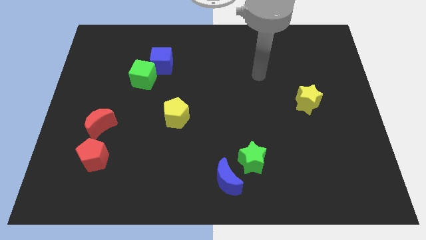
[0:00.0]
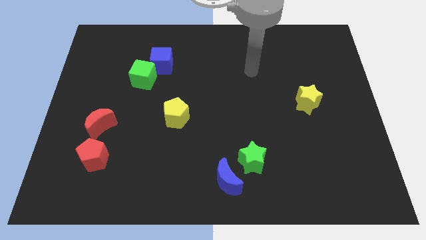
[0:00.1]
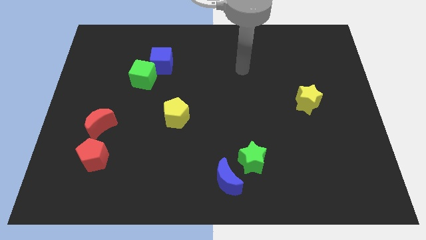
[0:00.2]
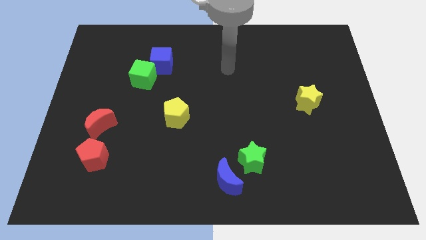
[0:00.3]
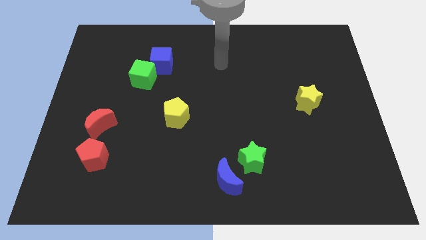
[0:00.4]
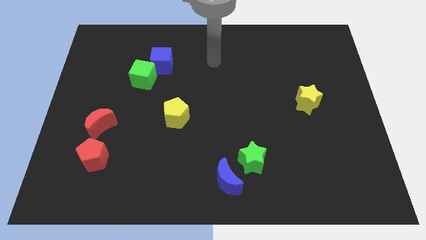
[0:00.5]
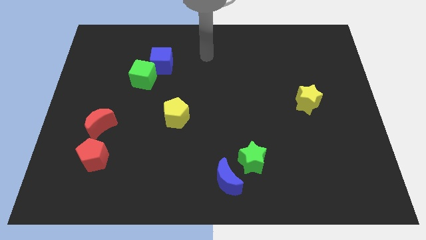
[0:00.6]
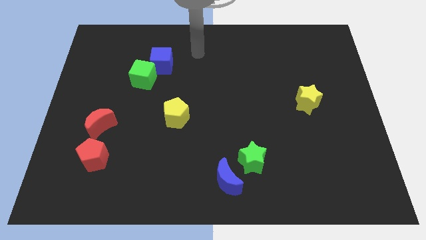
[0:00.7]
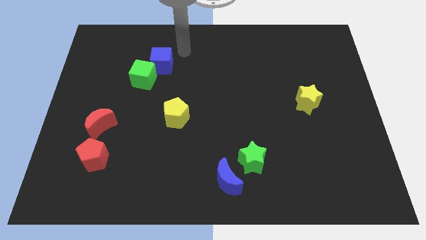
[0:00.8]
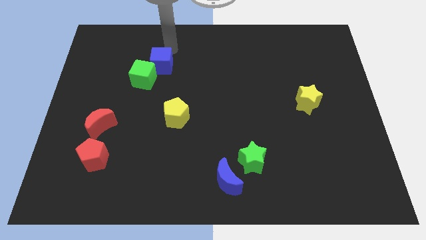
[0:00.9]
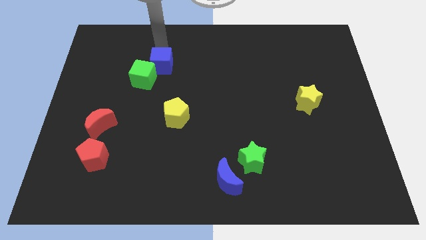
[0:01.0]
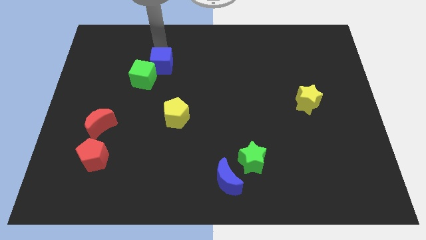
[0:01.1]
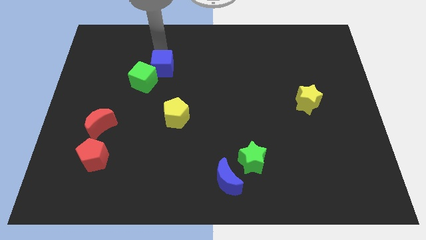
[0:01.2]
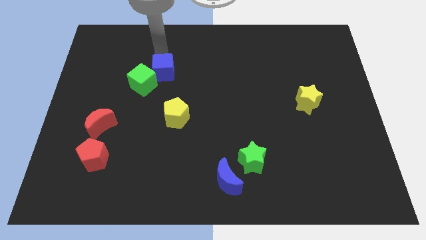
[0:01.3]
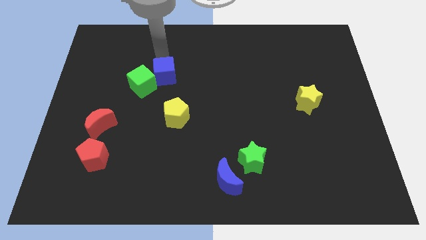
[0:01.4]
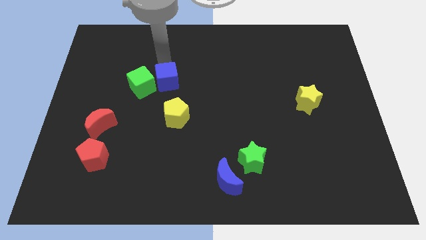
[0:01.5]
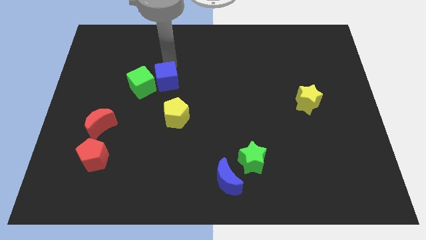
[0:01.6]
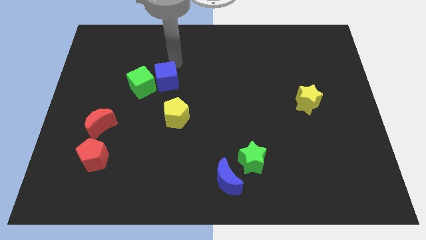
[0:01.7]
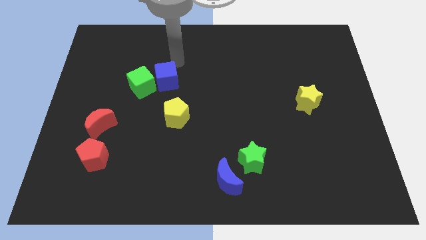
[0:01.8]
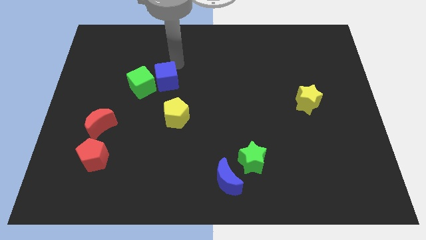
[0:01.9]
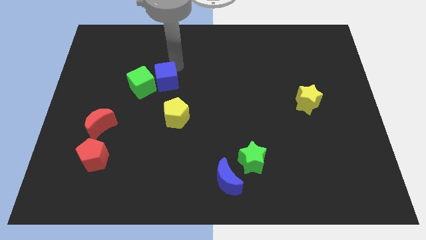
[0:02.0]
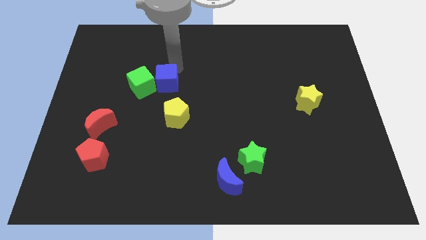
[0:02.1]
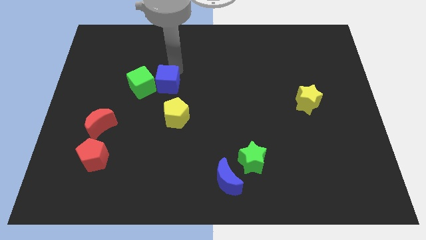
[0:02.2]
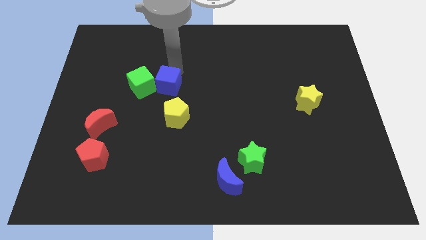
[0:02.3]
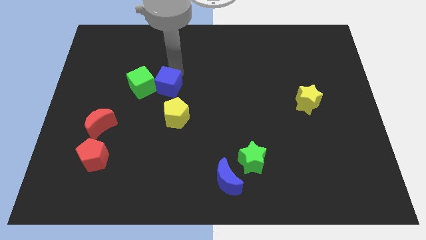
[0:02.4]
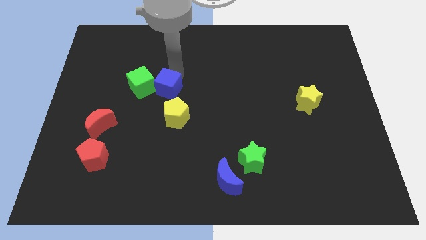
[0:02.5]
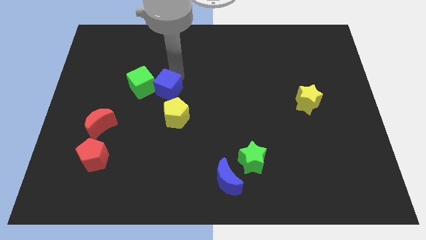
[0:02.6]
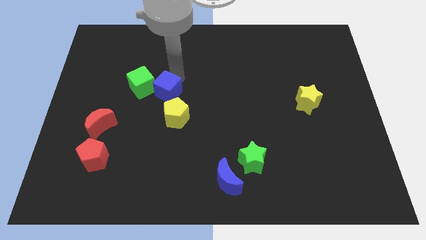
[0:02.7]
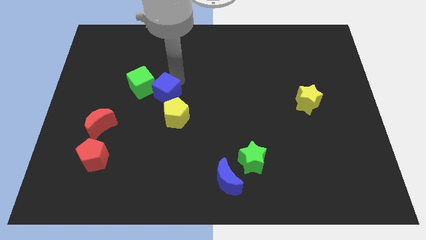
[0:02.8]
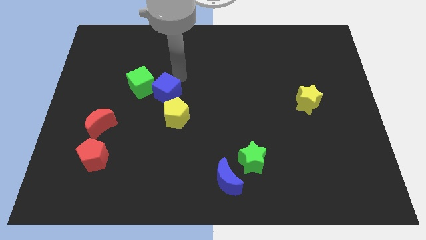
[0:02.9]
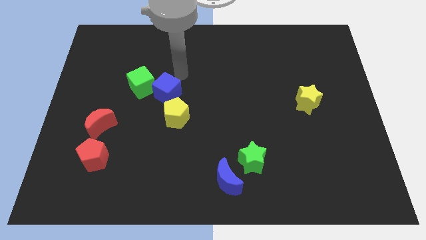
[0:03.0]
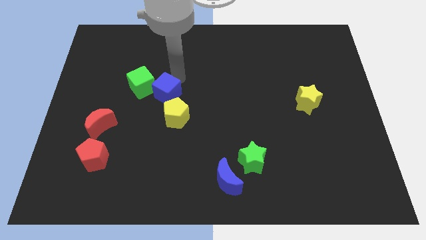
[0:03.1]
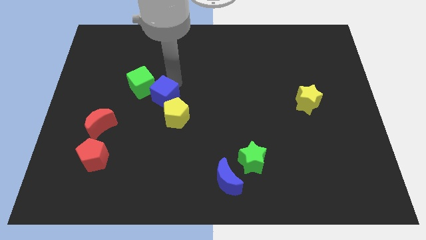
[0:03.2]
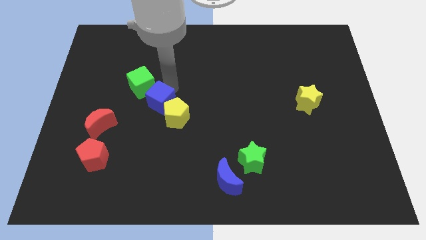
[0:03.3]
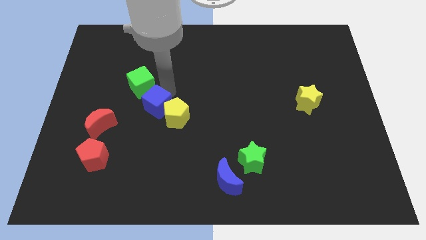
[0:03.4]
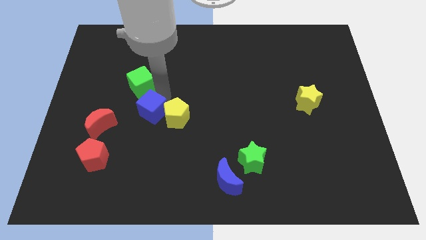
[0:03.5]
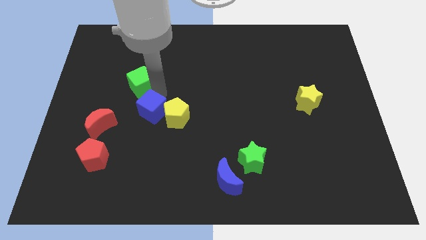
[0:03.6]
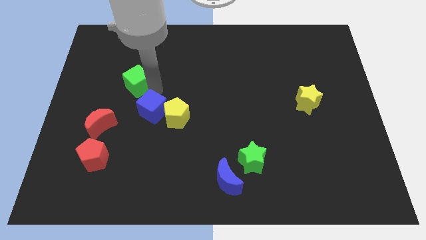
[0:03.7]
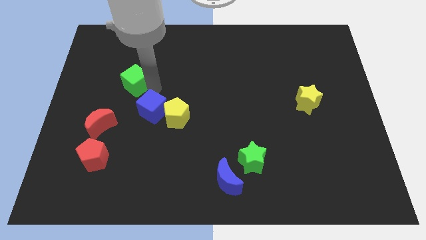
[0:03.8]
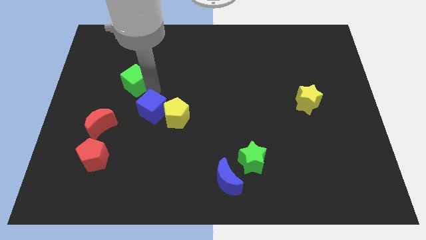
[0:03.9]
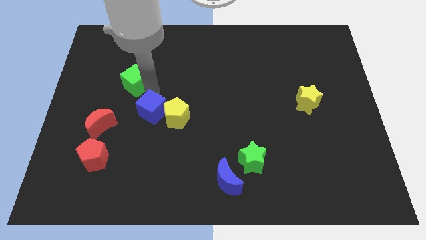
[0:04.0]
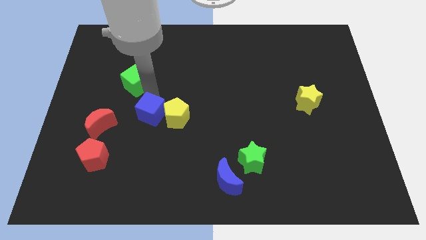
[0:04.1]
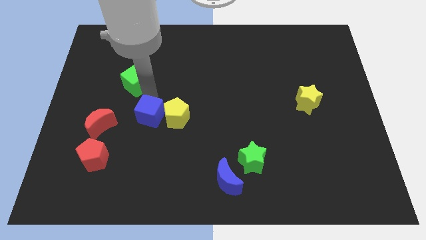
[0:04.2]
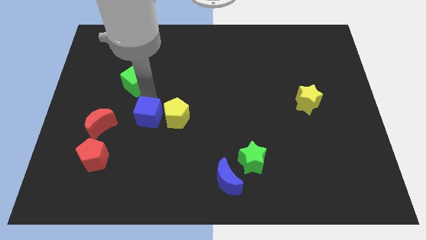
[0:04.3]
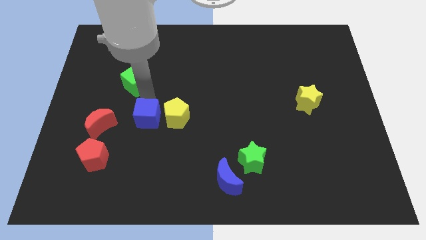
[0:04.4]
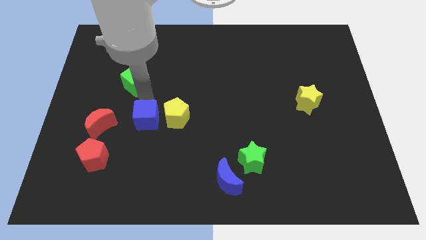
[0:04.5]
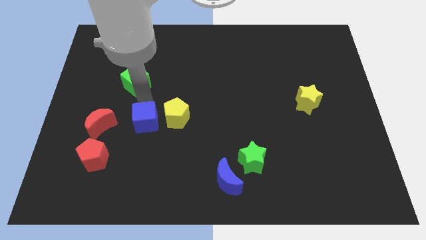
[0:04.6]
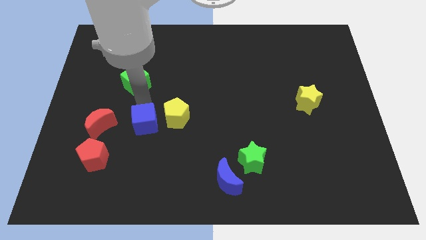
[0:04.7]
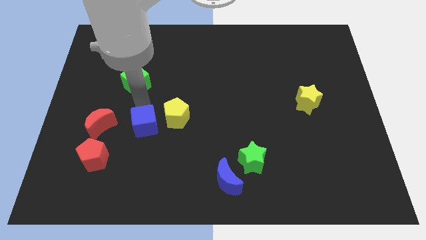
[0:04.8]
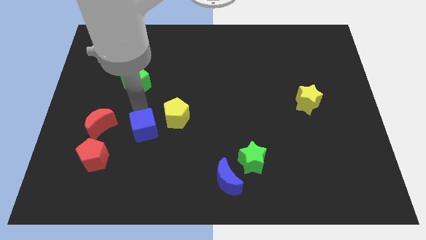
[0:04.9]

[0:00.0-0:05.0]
push the blue cube down

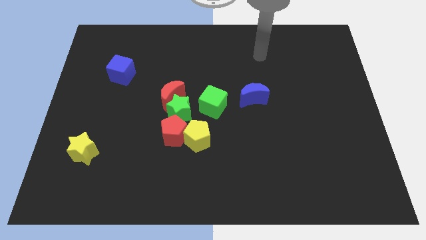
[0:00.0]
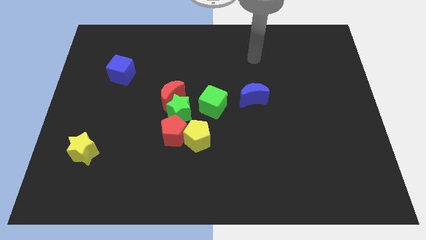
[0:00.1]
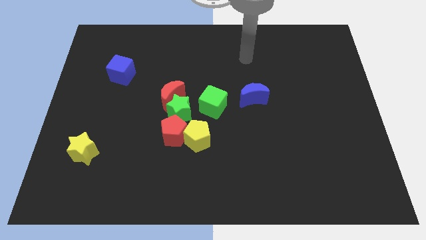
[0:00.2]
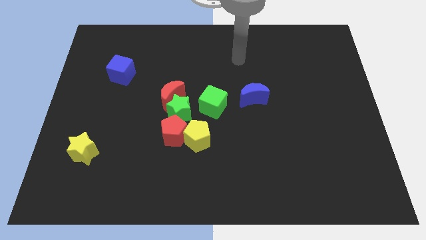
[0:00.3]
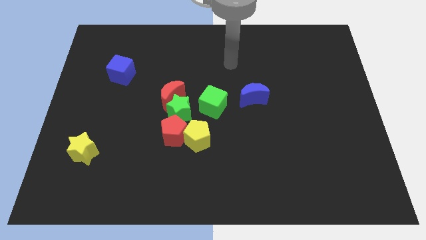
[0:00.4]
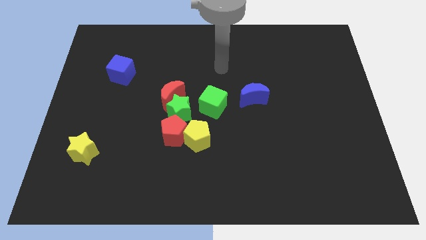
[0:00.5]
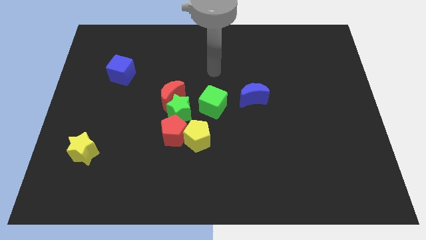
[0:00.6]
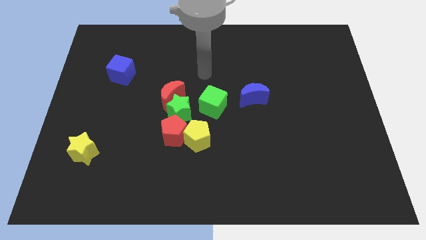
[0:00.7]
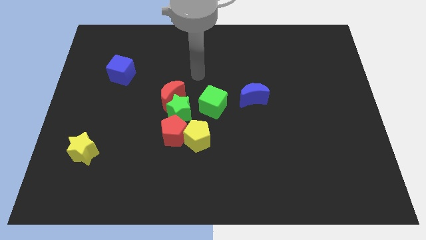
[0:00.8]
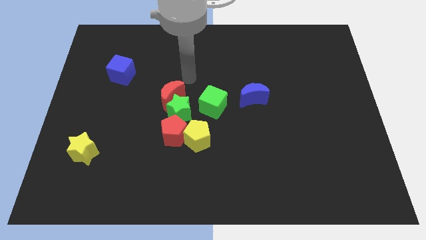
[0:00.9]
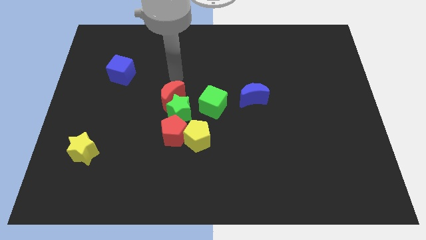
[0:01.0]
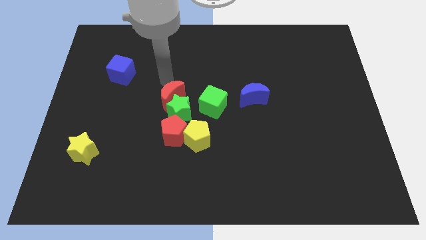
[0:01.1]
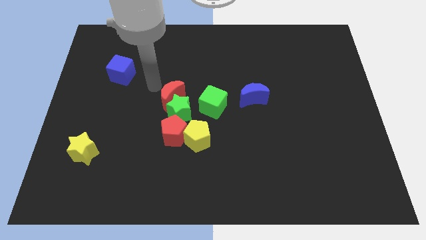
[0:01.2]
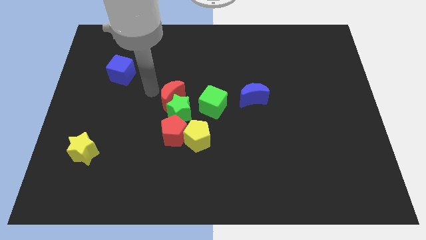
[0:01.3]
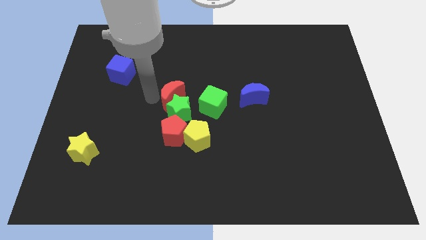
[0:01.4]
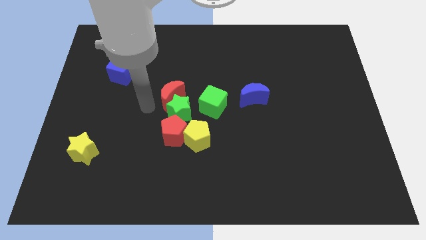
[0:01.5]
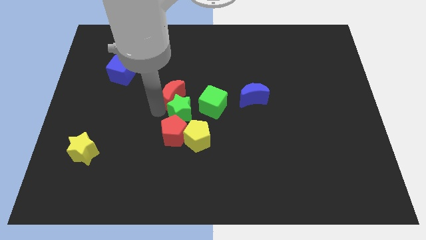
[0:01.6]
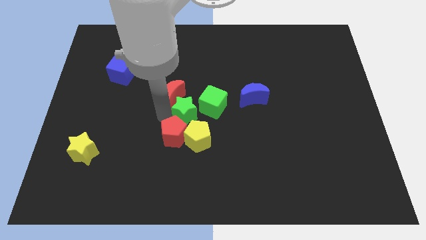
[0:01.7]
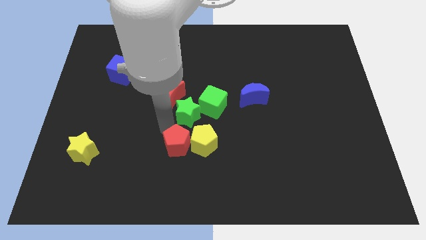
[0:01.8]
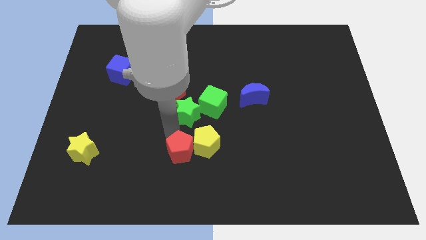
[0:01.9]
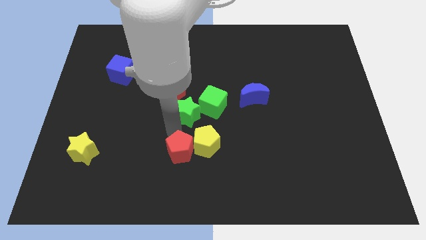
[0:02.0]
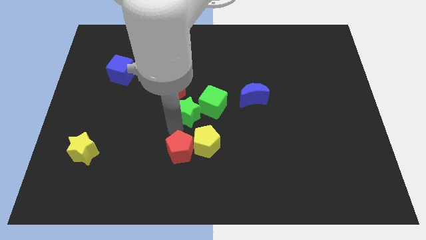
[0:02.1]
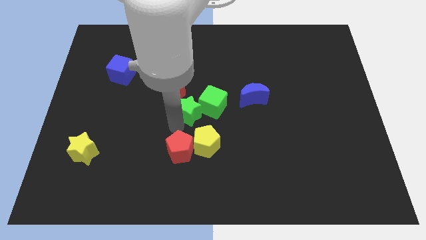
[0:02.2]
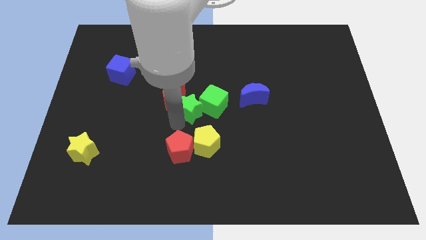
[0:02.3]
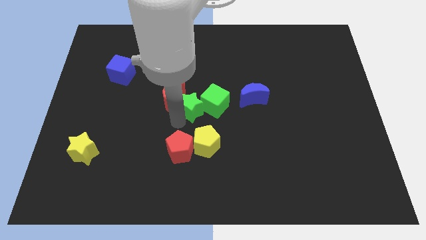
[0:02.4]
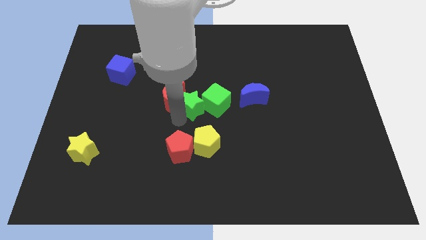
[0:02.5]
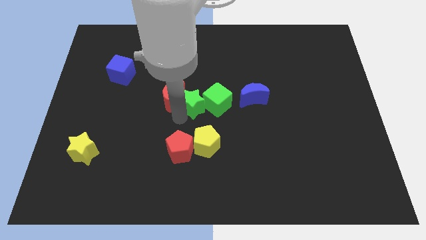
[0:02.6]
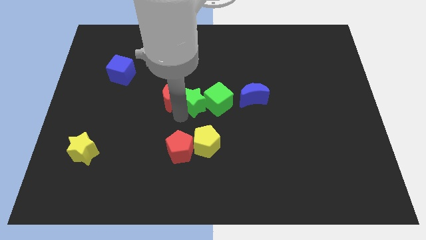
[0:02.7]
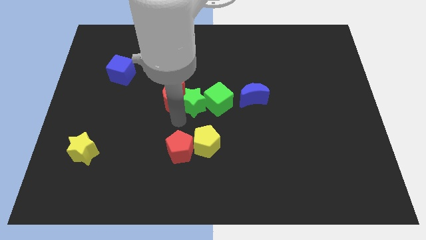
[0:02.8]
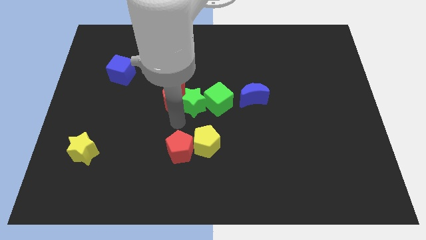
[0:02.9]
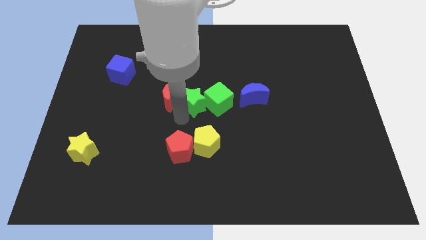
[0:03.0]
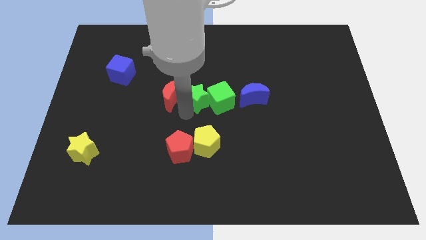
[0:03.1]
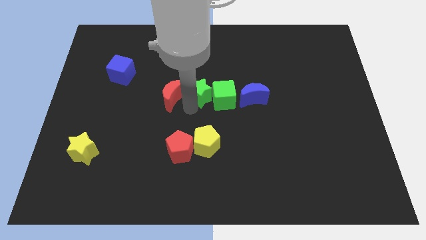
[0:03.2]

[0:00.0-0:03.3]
move the green star upwards and to the right a bit
